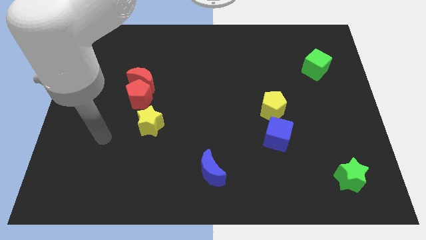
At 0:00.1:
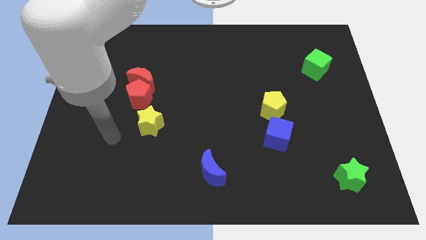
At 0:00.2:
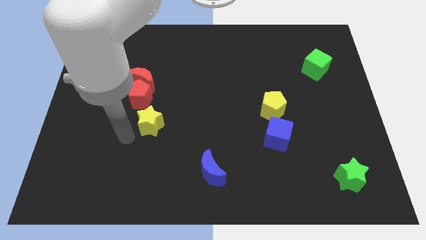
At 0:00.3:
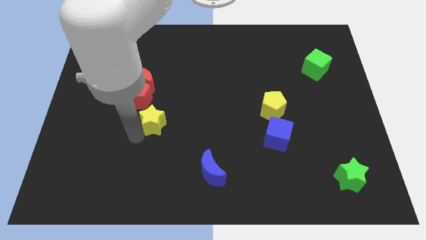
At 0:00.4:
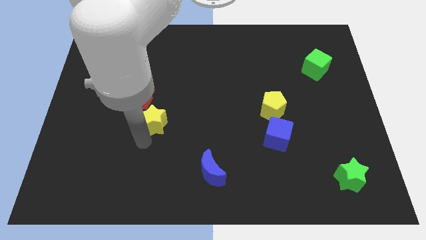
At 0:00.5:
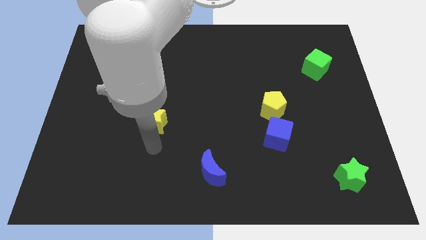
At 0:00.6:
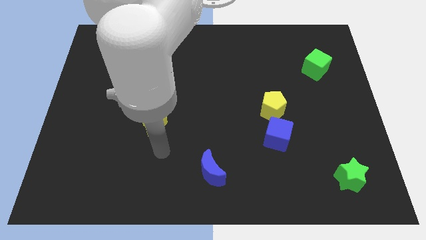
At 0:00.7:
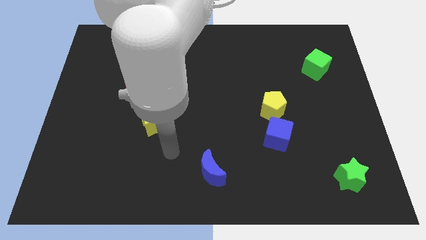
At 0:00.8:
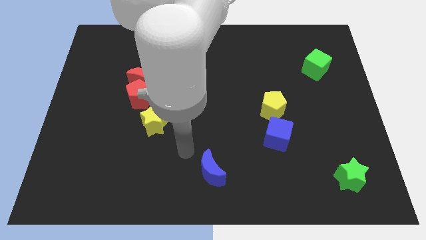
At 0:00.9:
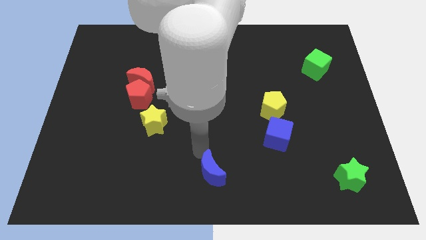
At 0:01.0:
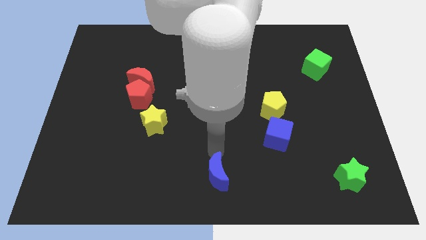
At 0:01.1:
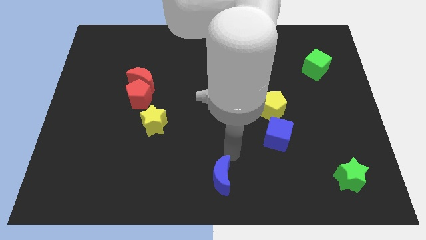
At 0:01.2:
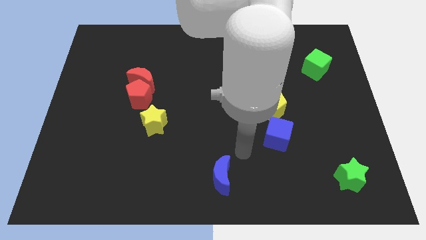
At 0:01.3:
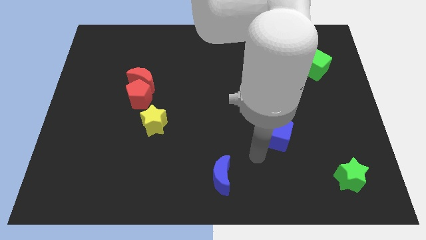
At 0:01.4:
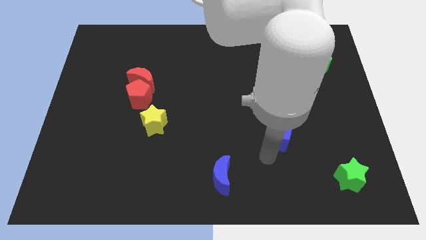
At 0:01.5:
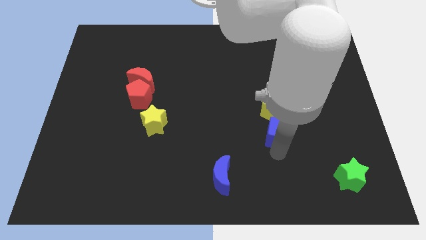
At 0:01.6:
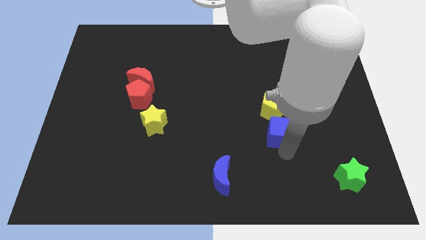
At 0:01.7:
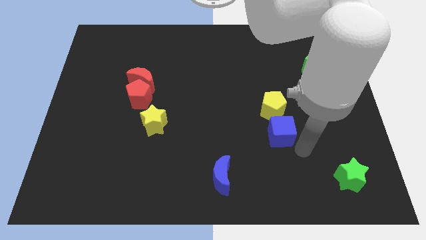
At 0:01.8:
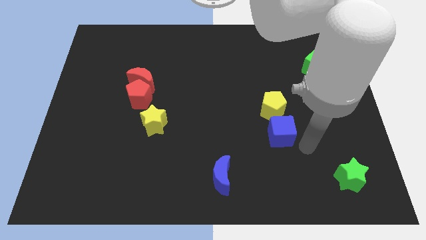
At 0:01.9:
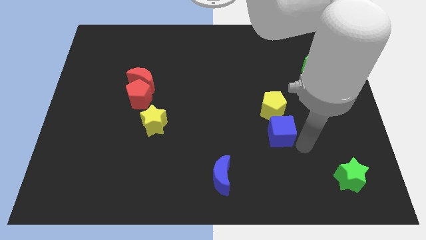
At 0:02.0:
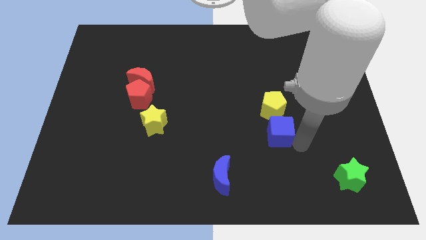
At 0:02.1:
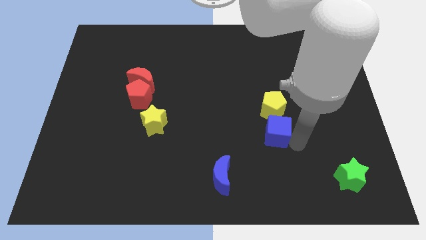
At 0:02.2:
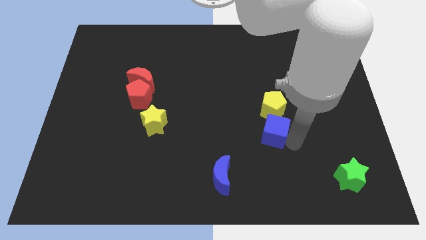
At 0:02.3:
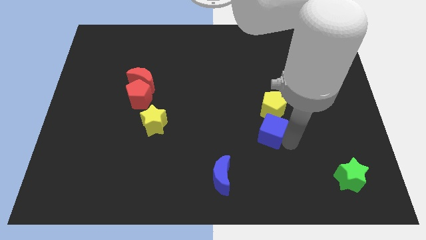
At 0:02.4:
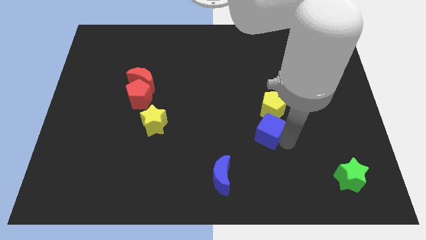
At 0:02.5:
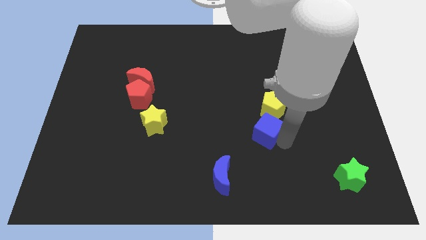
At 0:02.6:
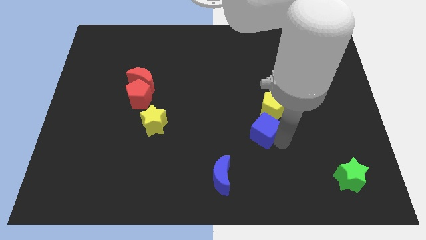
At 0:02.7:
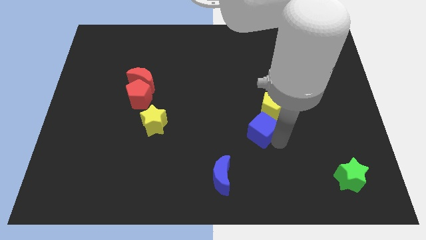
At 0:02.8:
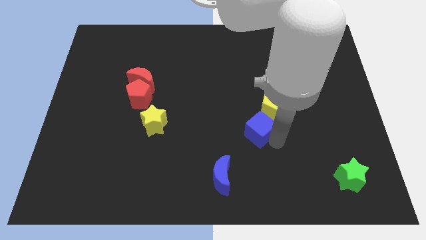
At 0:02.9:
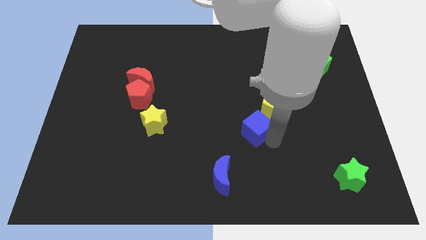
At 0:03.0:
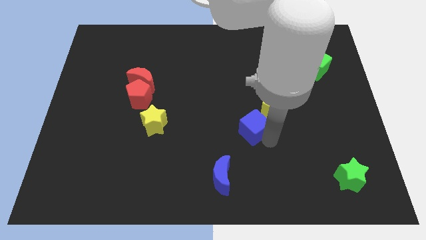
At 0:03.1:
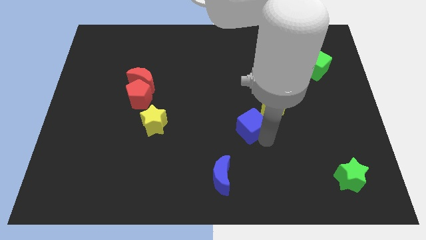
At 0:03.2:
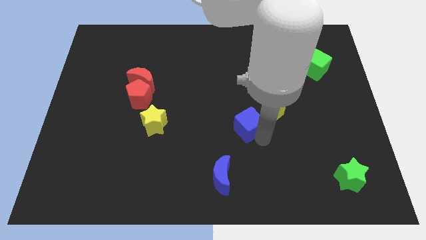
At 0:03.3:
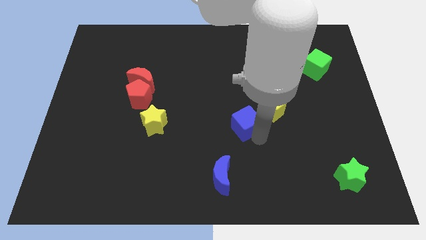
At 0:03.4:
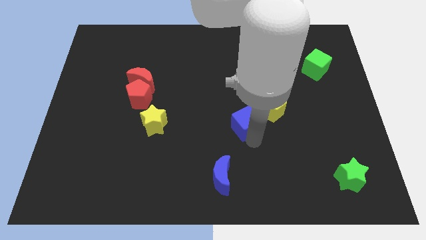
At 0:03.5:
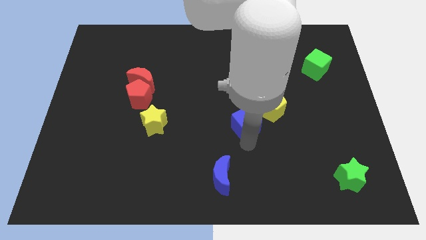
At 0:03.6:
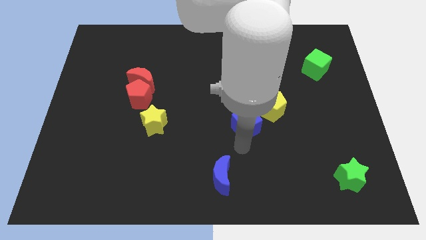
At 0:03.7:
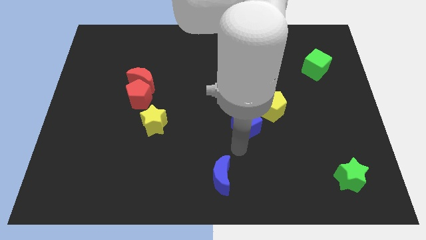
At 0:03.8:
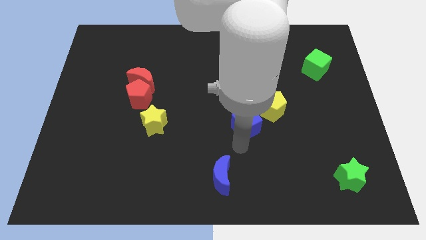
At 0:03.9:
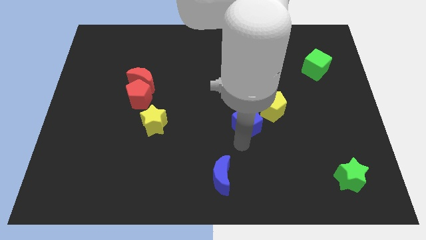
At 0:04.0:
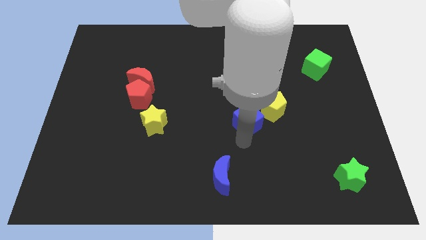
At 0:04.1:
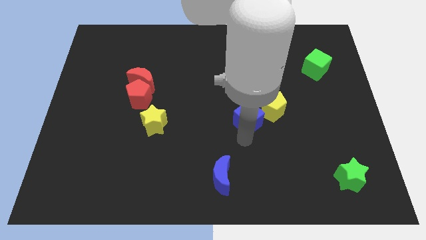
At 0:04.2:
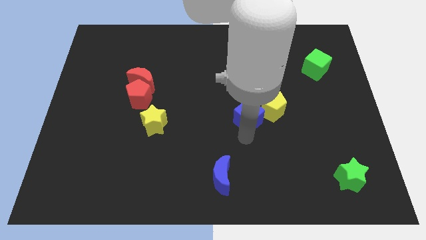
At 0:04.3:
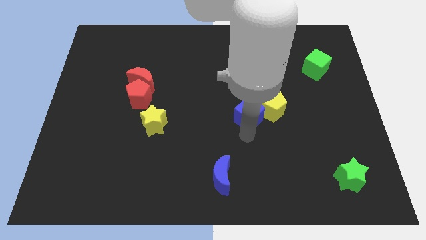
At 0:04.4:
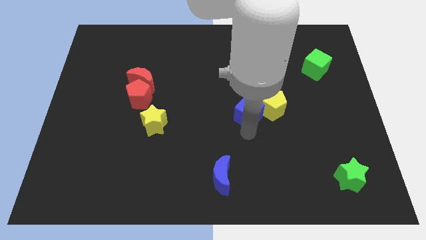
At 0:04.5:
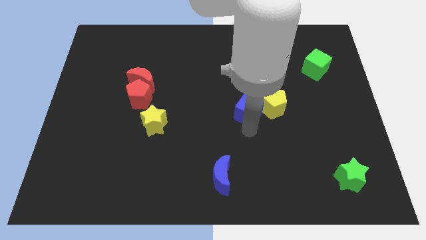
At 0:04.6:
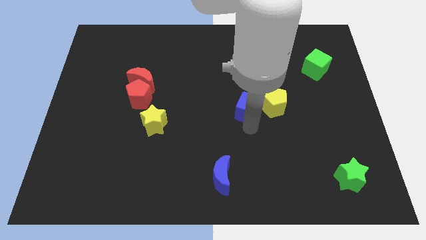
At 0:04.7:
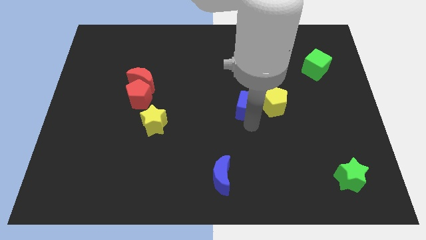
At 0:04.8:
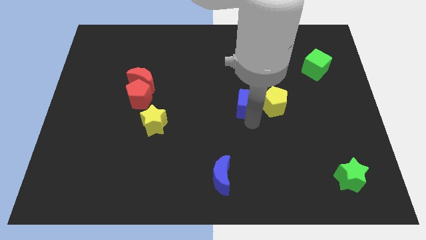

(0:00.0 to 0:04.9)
put the blue cube to the top left of the yellow pentagon

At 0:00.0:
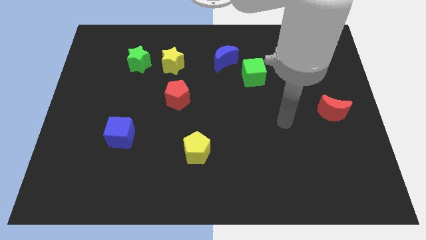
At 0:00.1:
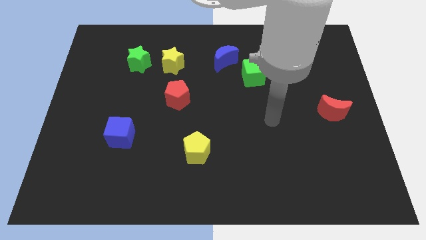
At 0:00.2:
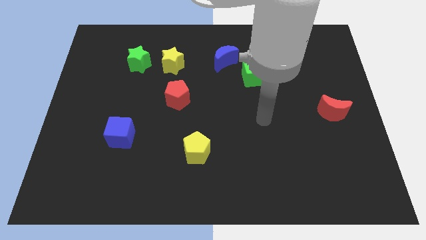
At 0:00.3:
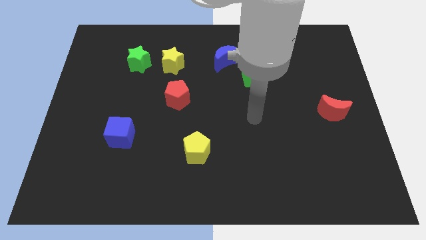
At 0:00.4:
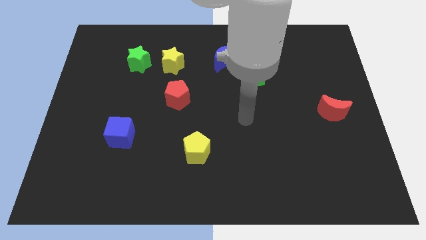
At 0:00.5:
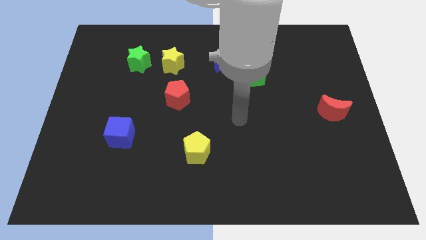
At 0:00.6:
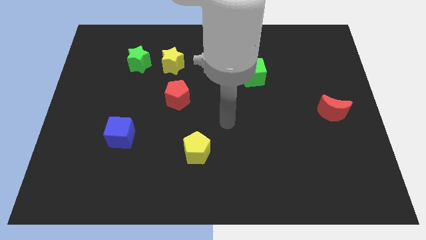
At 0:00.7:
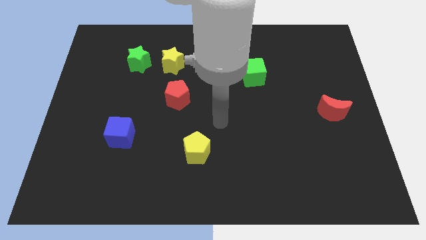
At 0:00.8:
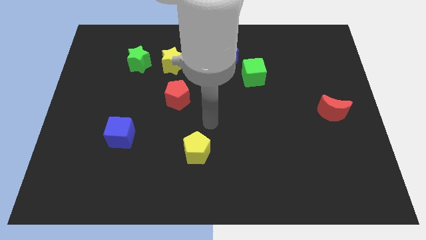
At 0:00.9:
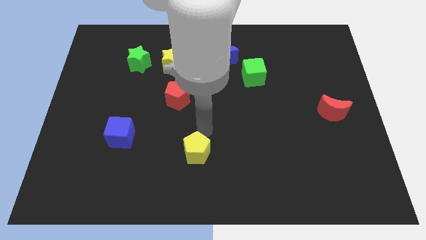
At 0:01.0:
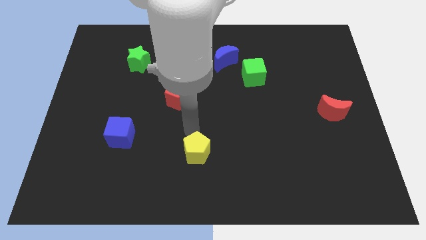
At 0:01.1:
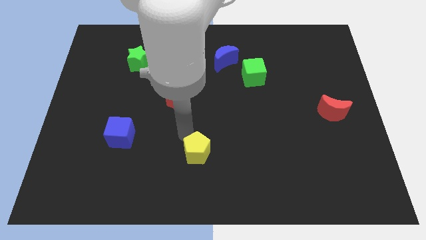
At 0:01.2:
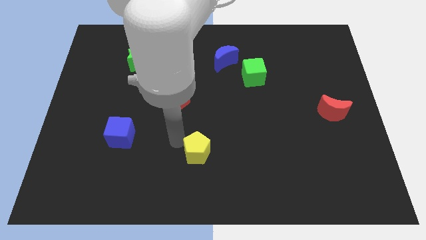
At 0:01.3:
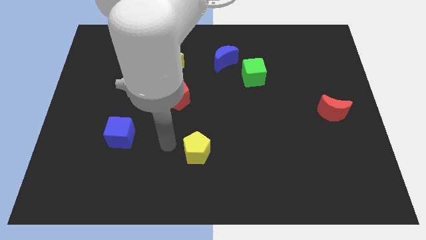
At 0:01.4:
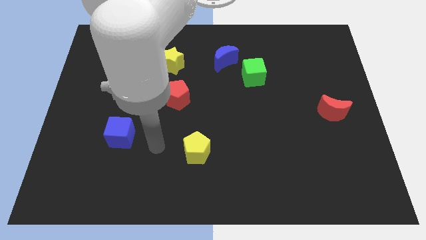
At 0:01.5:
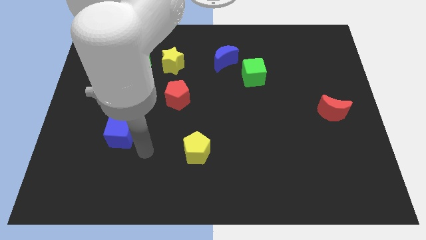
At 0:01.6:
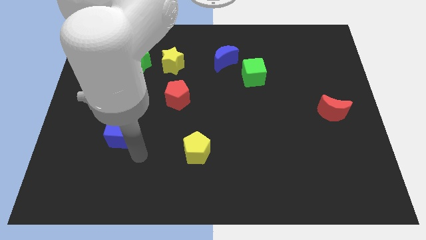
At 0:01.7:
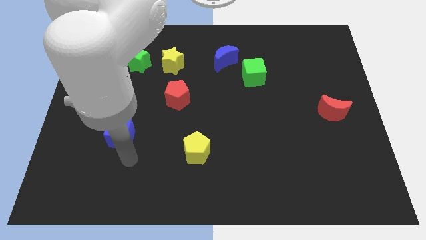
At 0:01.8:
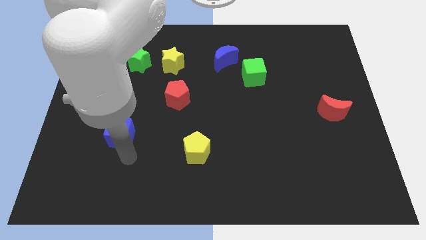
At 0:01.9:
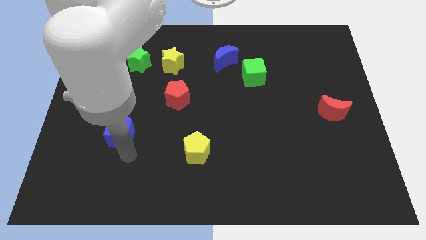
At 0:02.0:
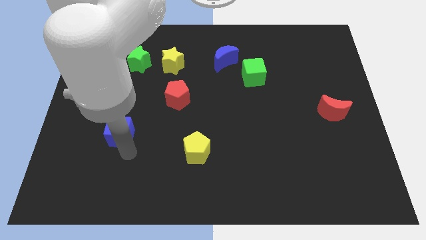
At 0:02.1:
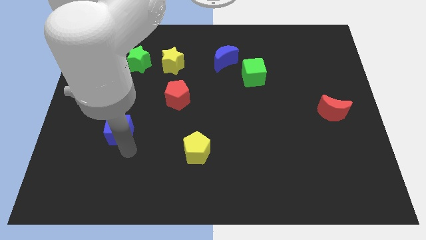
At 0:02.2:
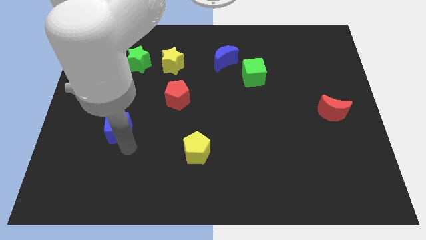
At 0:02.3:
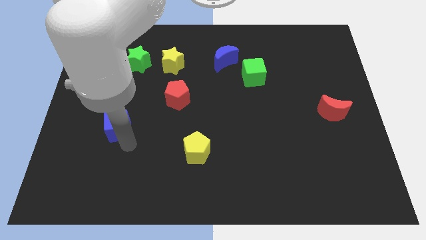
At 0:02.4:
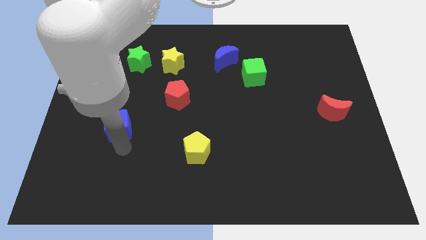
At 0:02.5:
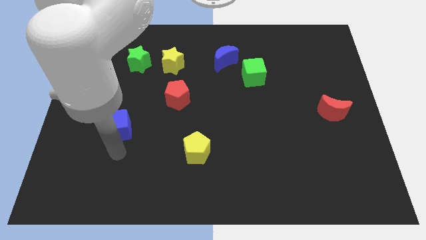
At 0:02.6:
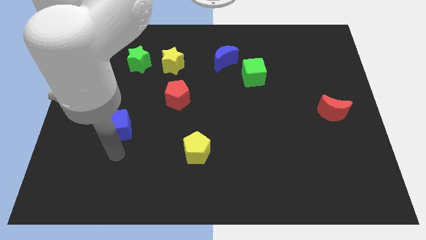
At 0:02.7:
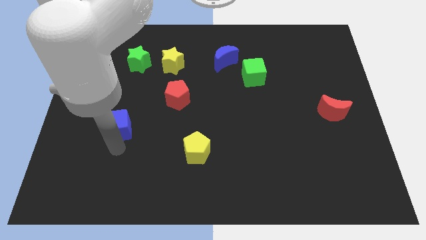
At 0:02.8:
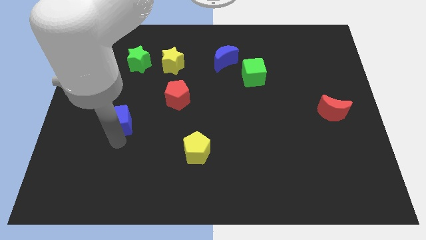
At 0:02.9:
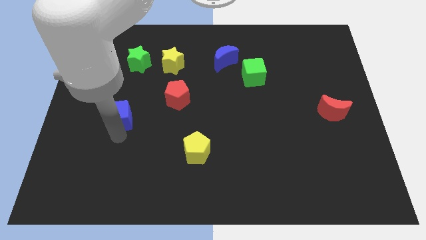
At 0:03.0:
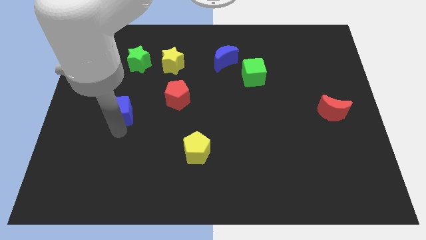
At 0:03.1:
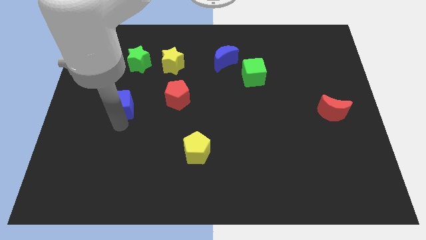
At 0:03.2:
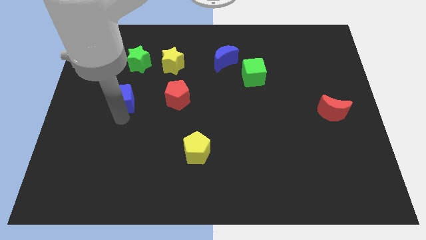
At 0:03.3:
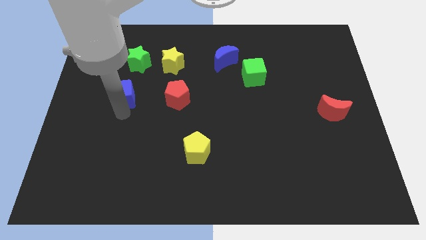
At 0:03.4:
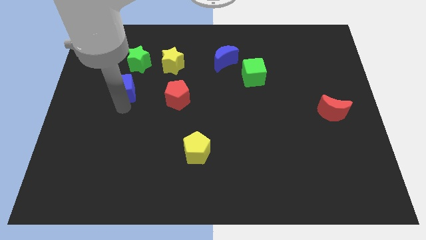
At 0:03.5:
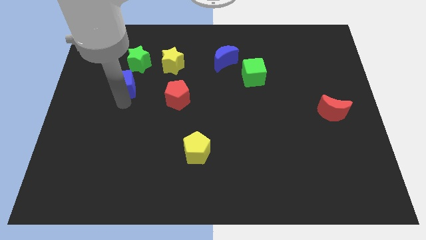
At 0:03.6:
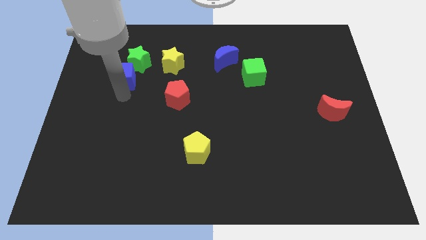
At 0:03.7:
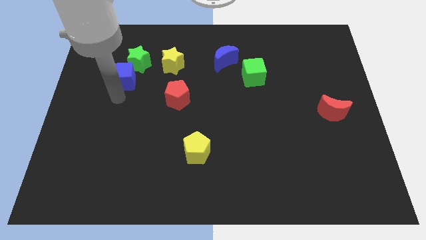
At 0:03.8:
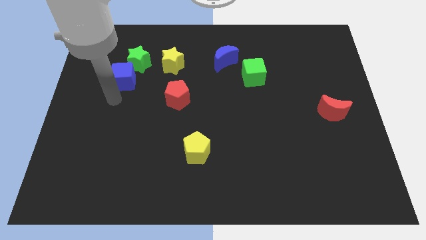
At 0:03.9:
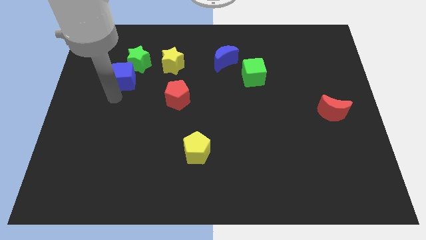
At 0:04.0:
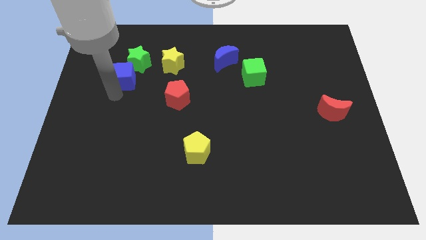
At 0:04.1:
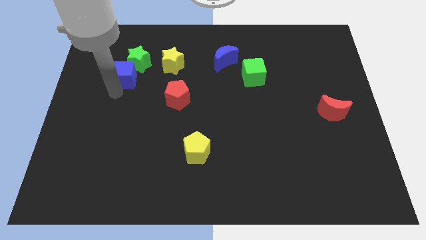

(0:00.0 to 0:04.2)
slide the blue cube to the left side of the yellow star
